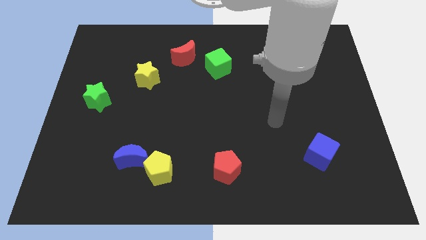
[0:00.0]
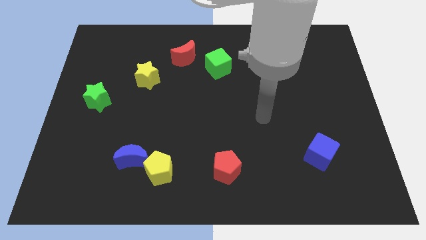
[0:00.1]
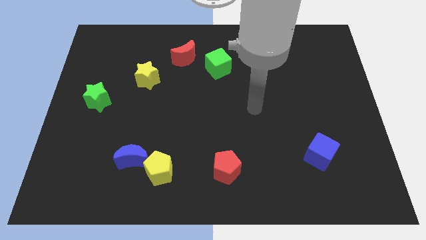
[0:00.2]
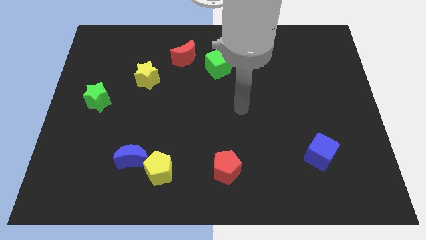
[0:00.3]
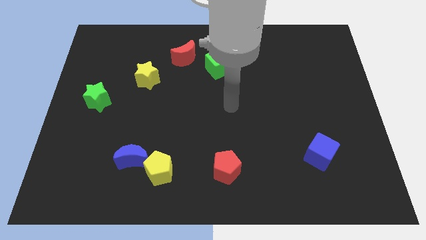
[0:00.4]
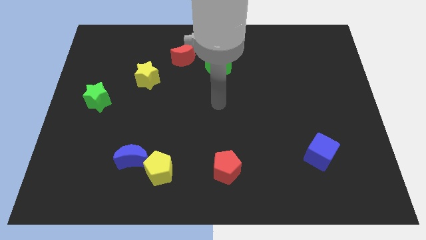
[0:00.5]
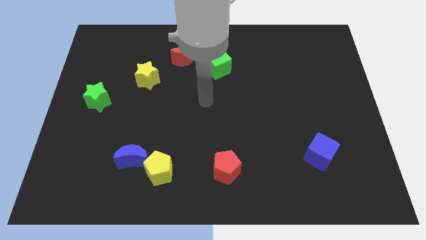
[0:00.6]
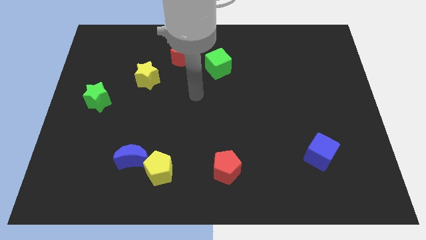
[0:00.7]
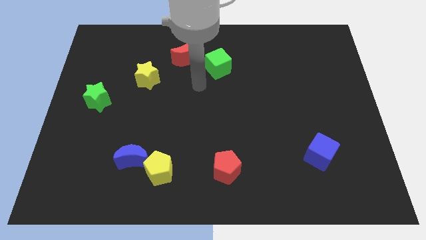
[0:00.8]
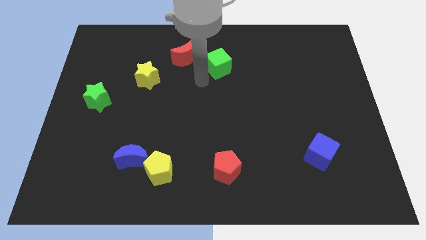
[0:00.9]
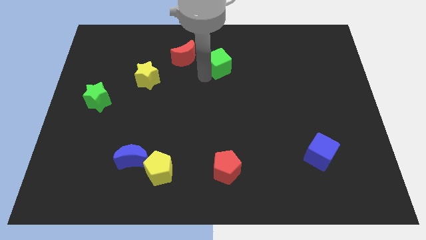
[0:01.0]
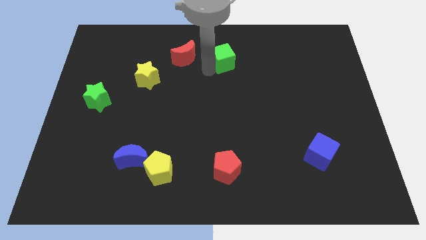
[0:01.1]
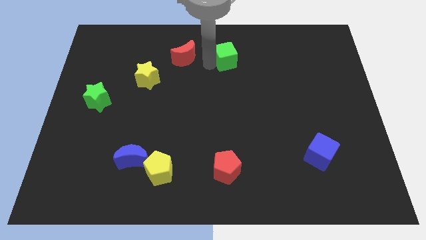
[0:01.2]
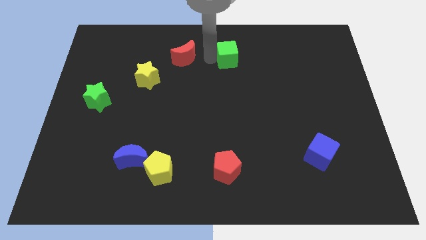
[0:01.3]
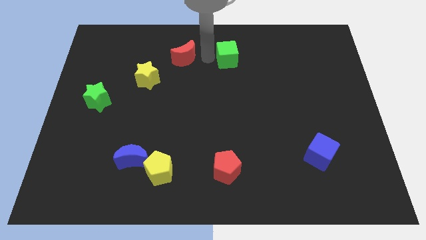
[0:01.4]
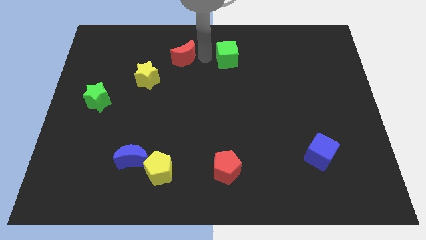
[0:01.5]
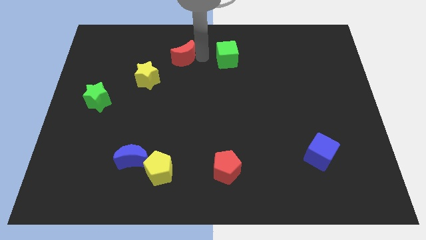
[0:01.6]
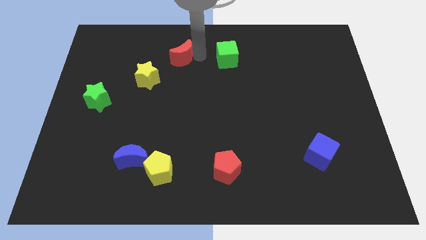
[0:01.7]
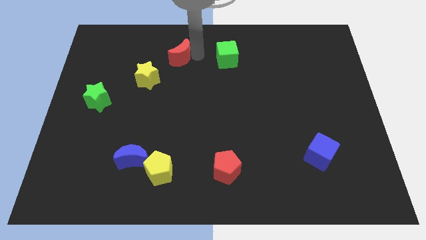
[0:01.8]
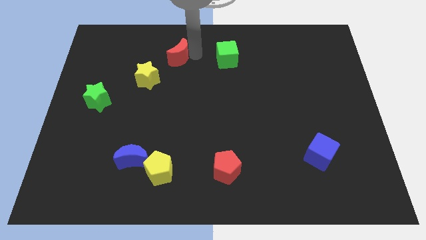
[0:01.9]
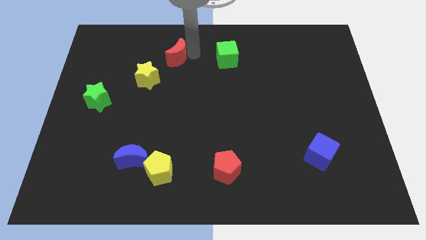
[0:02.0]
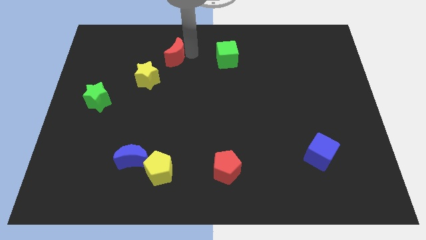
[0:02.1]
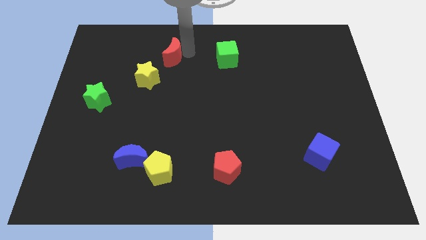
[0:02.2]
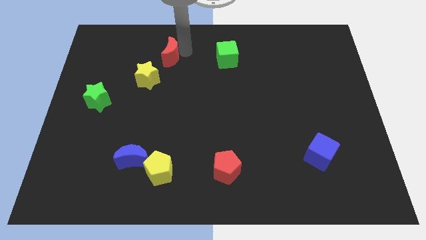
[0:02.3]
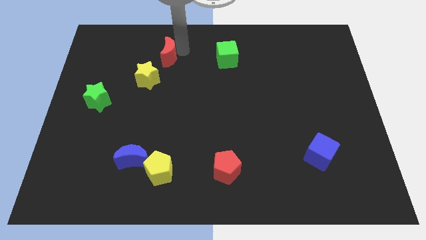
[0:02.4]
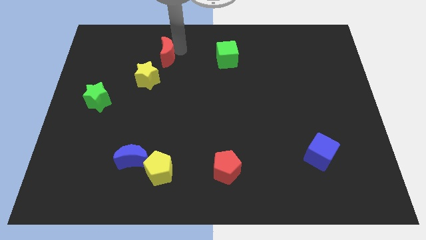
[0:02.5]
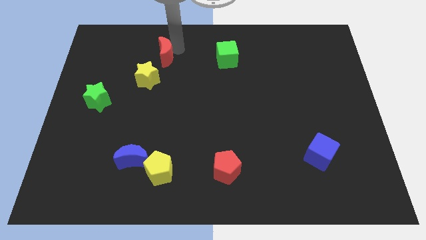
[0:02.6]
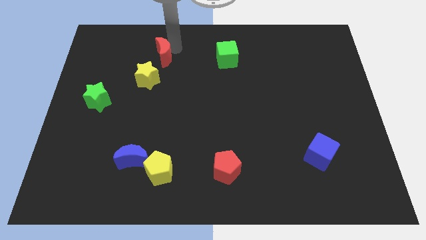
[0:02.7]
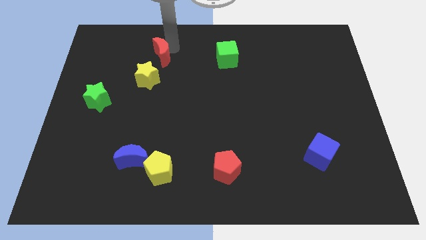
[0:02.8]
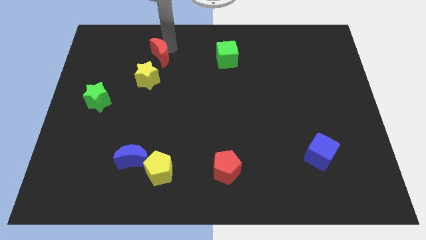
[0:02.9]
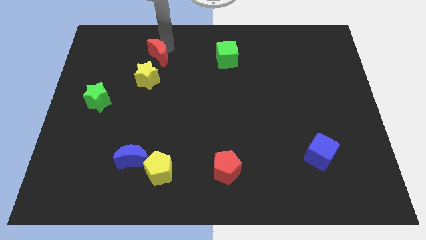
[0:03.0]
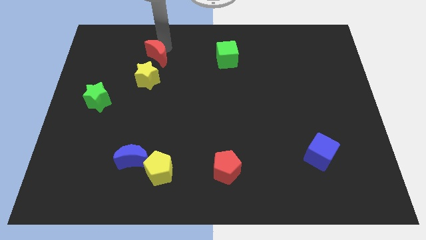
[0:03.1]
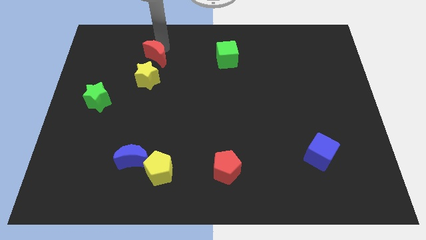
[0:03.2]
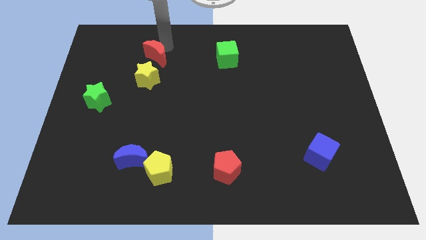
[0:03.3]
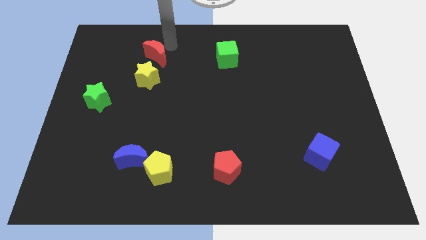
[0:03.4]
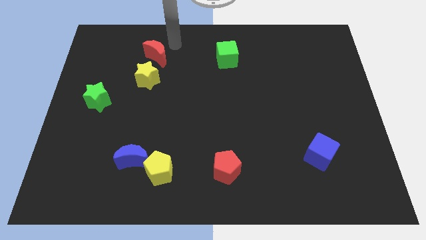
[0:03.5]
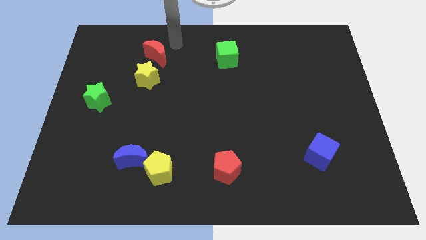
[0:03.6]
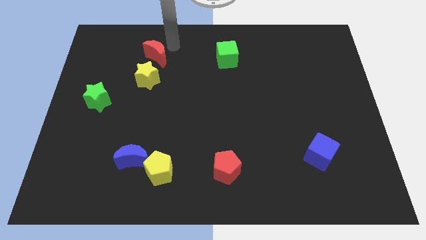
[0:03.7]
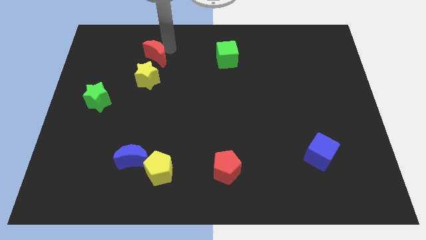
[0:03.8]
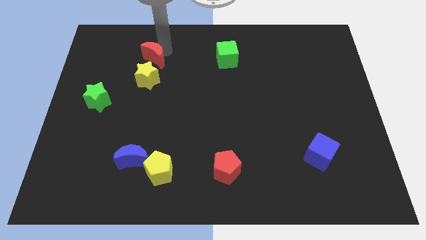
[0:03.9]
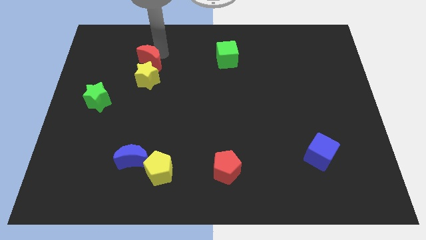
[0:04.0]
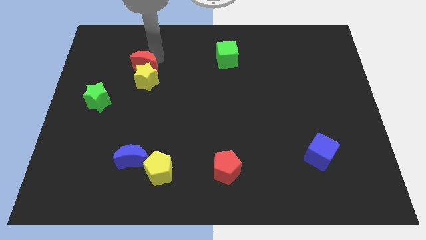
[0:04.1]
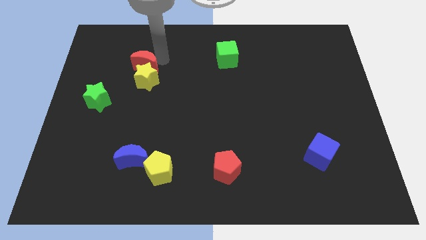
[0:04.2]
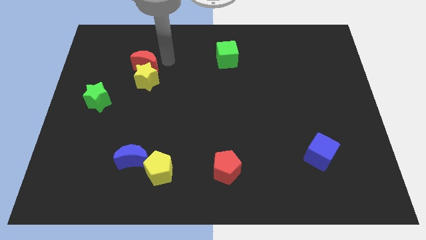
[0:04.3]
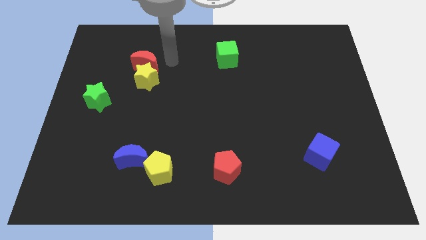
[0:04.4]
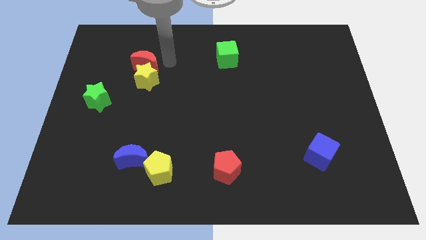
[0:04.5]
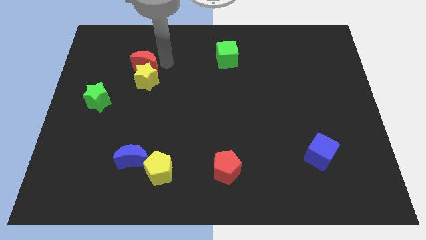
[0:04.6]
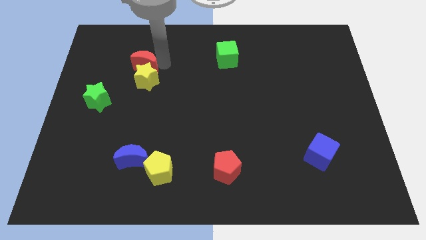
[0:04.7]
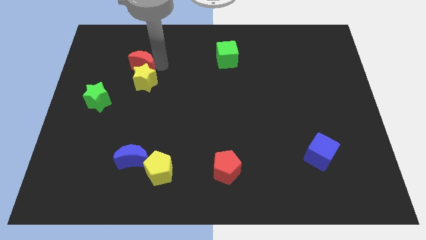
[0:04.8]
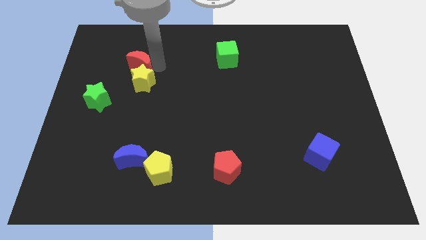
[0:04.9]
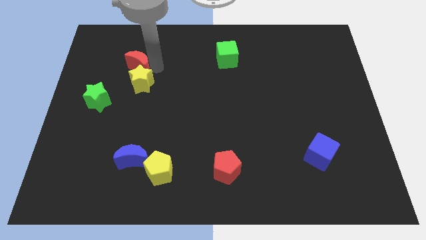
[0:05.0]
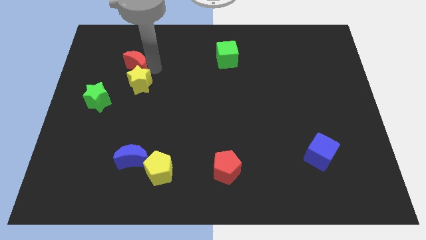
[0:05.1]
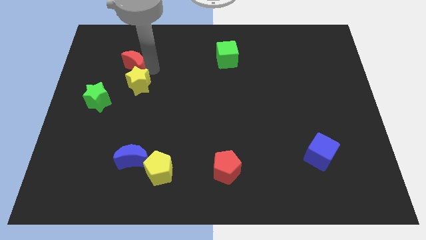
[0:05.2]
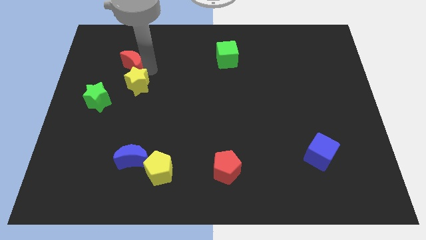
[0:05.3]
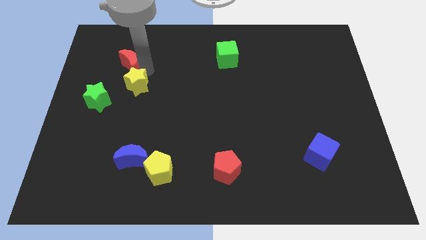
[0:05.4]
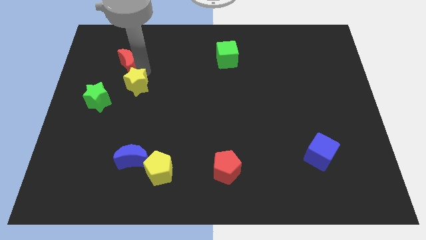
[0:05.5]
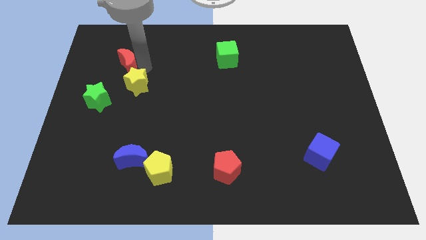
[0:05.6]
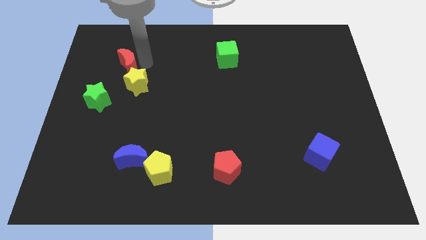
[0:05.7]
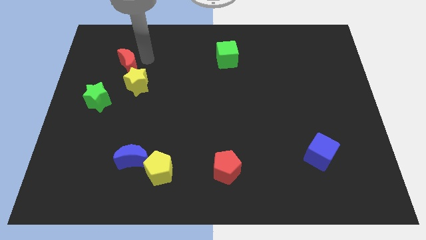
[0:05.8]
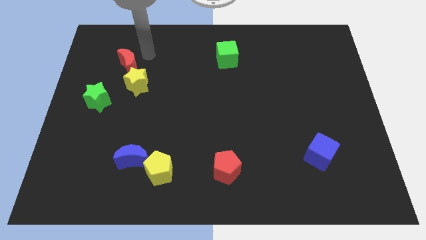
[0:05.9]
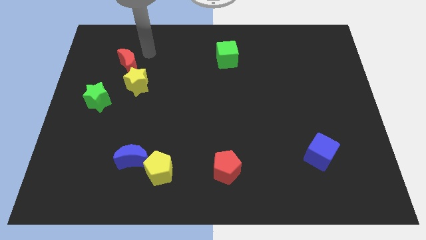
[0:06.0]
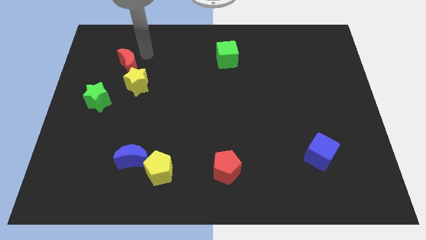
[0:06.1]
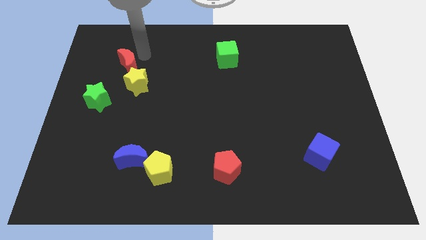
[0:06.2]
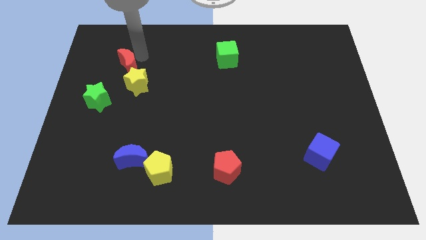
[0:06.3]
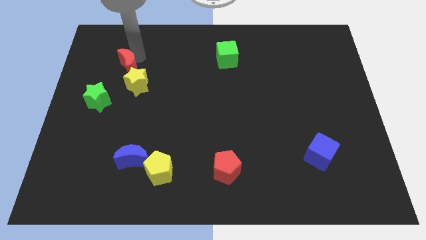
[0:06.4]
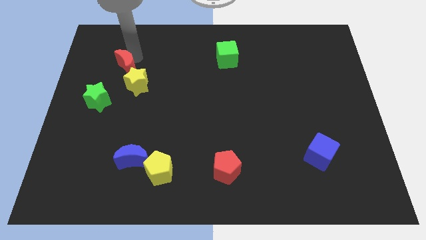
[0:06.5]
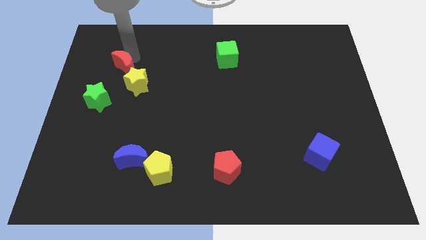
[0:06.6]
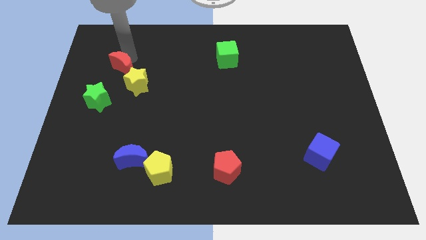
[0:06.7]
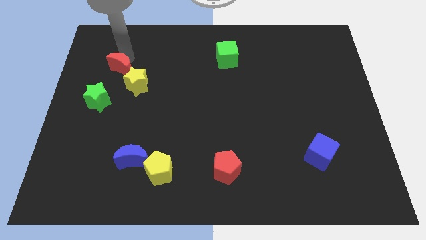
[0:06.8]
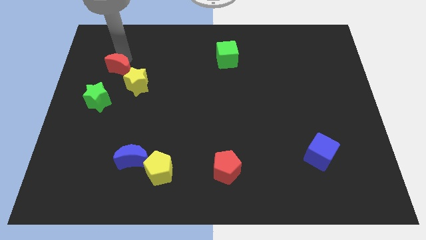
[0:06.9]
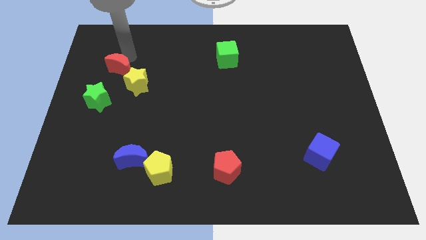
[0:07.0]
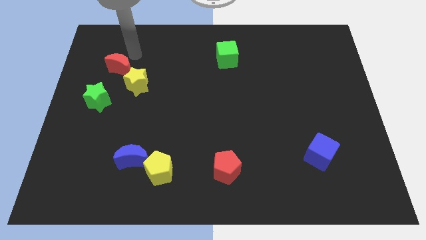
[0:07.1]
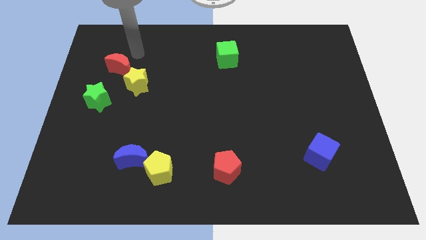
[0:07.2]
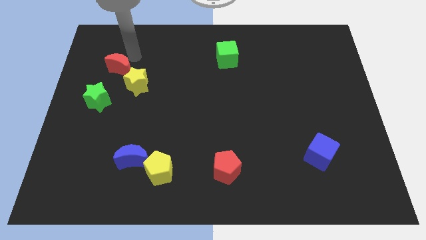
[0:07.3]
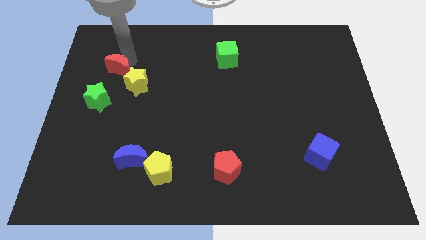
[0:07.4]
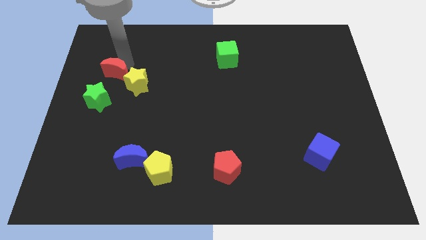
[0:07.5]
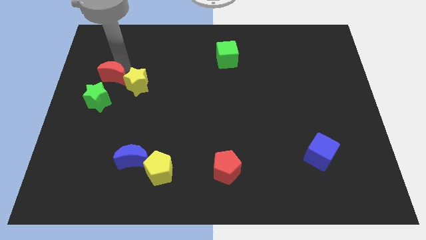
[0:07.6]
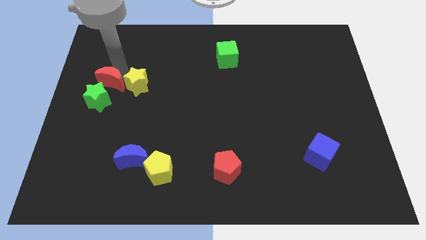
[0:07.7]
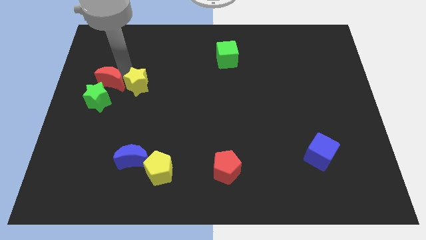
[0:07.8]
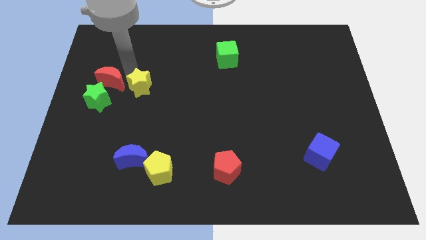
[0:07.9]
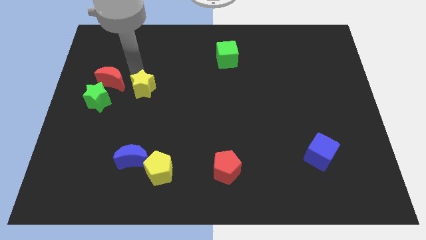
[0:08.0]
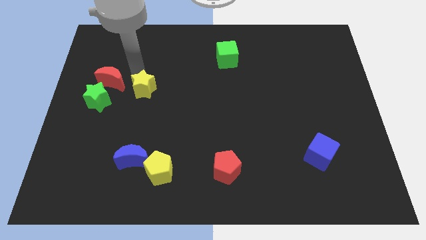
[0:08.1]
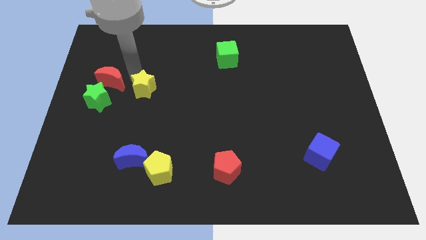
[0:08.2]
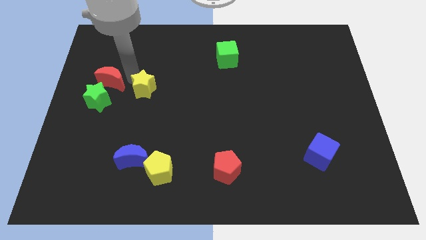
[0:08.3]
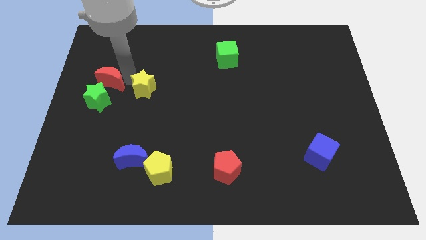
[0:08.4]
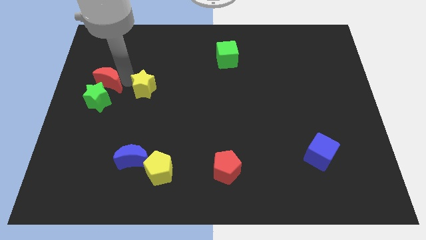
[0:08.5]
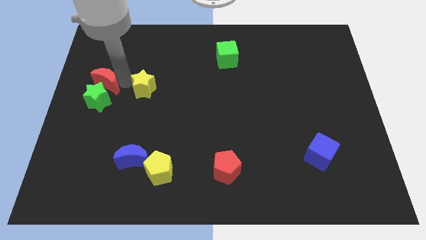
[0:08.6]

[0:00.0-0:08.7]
move the red moon to the left side
